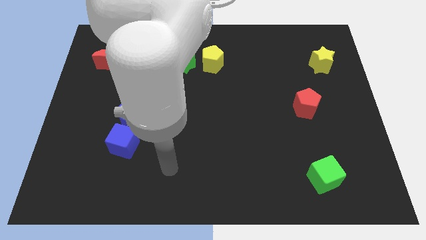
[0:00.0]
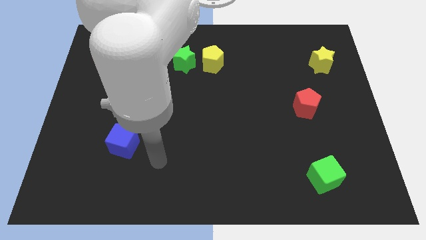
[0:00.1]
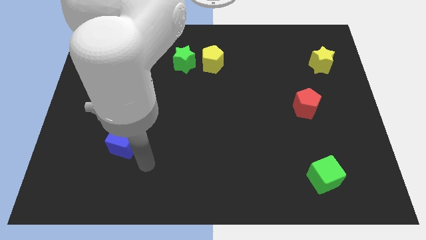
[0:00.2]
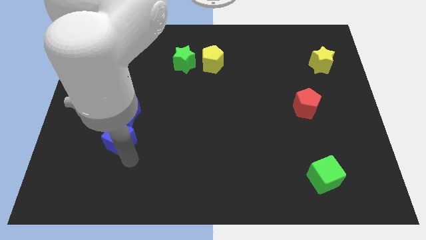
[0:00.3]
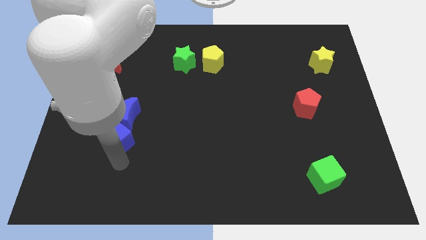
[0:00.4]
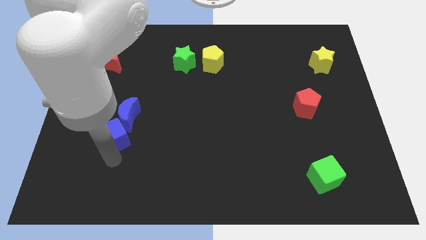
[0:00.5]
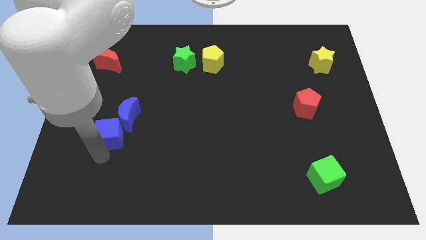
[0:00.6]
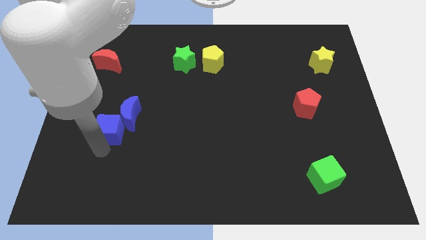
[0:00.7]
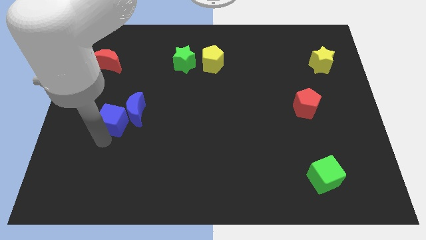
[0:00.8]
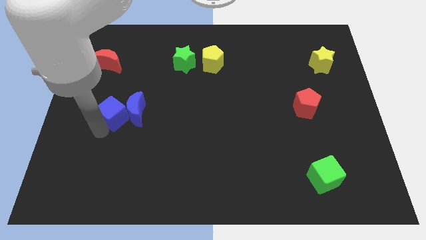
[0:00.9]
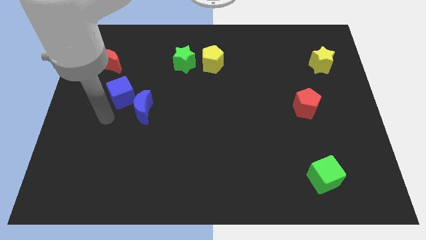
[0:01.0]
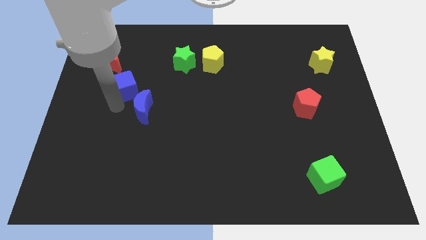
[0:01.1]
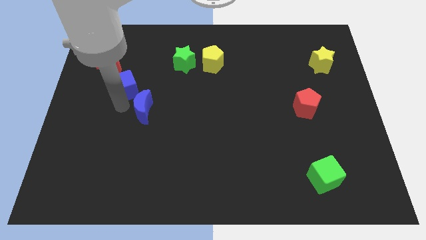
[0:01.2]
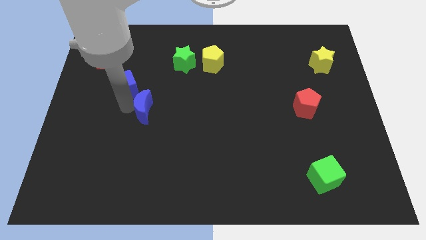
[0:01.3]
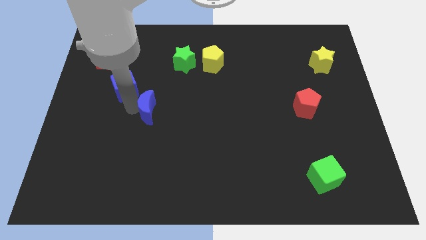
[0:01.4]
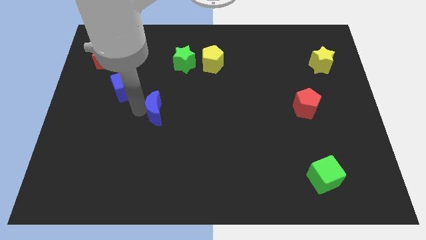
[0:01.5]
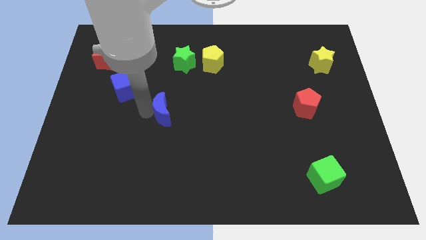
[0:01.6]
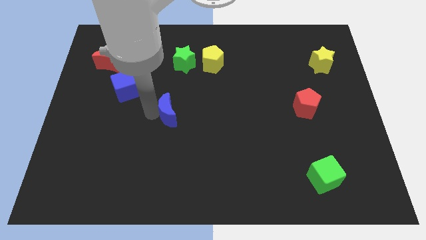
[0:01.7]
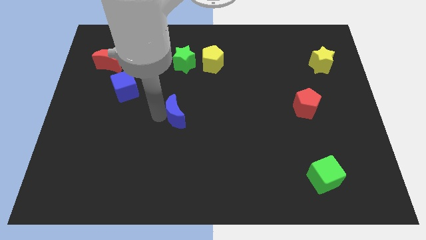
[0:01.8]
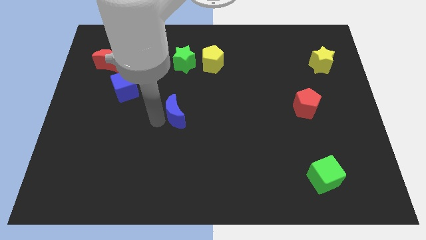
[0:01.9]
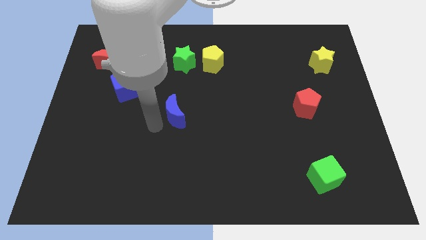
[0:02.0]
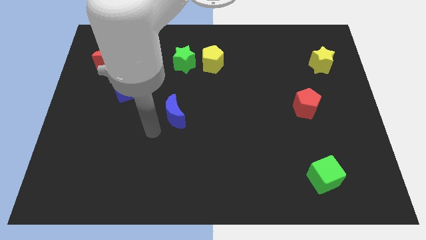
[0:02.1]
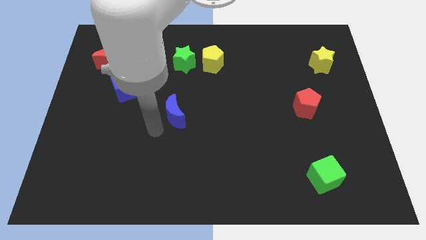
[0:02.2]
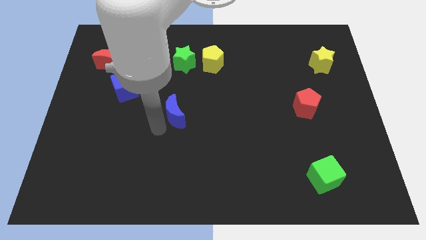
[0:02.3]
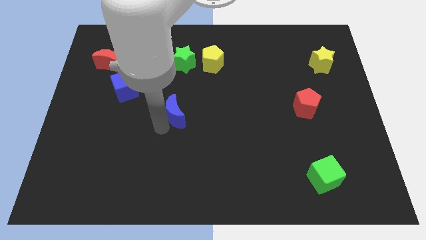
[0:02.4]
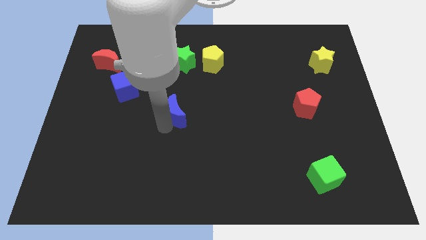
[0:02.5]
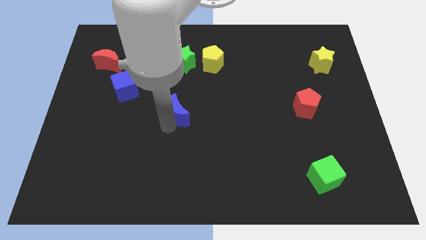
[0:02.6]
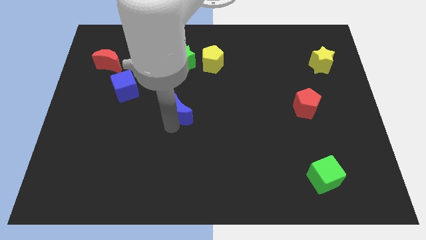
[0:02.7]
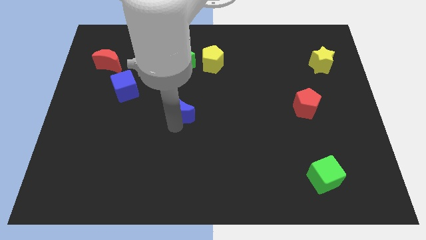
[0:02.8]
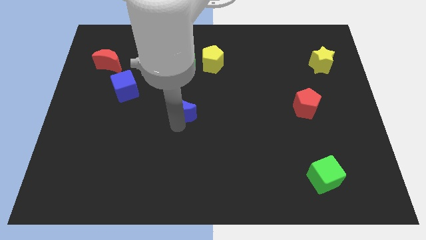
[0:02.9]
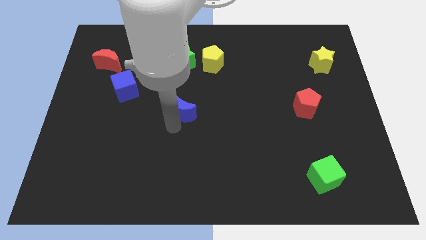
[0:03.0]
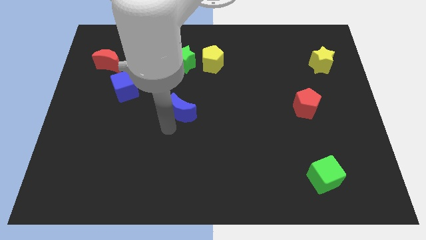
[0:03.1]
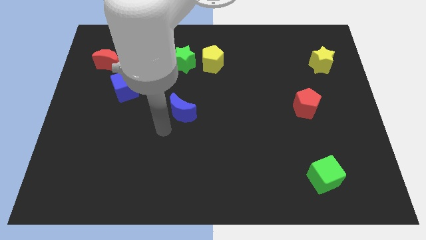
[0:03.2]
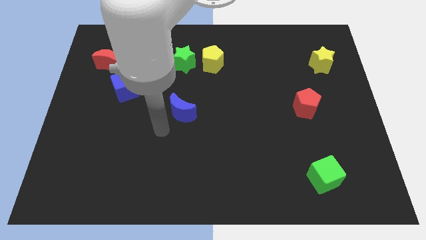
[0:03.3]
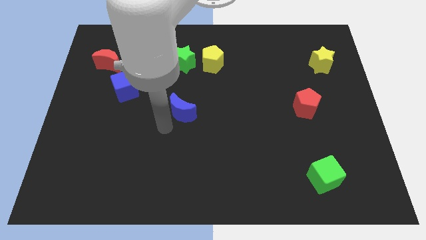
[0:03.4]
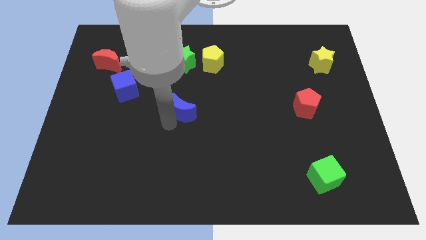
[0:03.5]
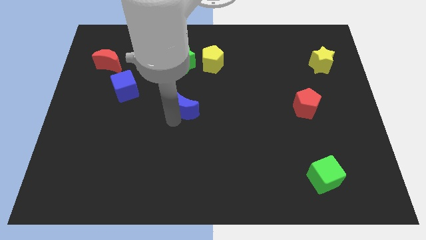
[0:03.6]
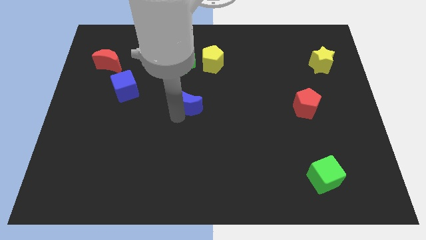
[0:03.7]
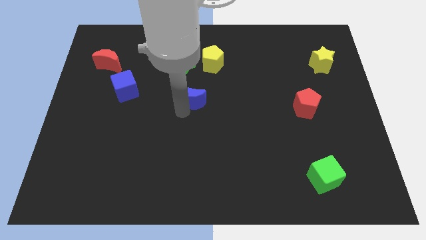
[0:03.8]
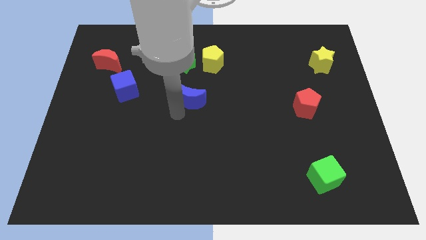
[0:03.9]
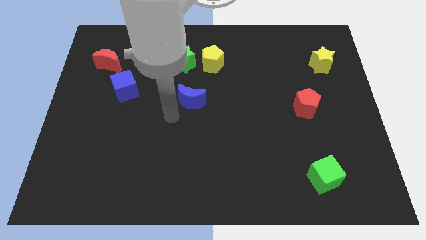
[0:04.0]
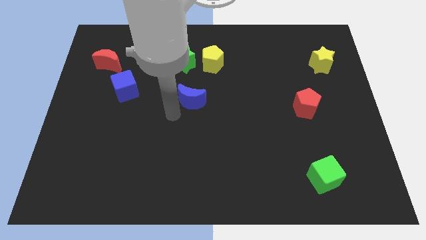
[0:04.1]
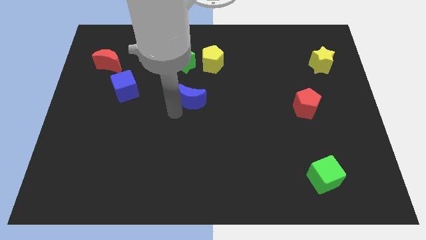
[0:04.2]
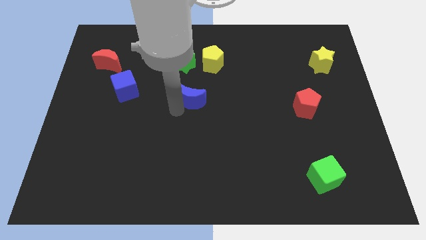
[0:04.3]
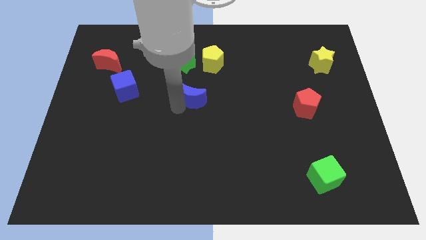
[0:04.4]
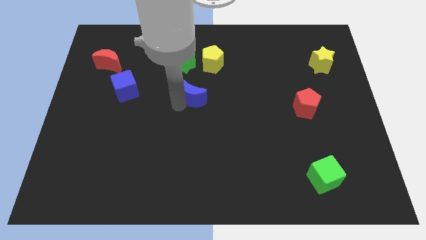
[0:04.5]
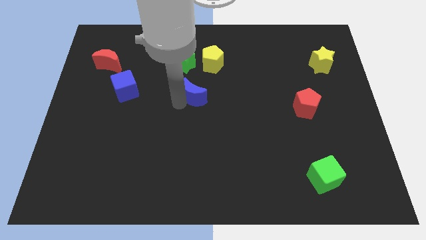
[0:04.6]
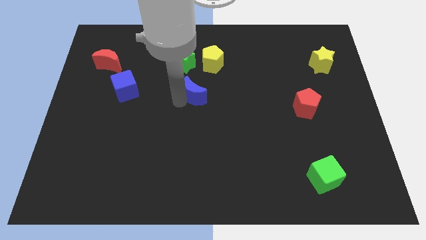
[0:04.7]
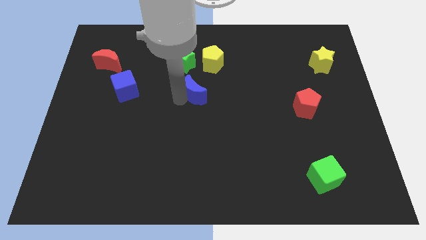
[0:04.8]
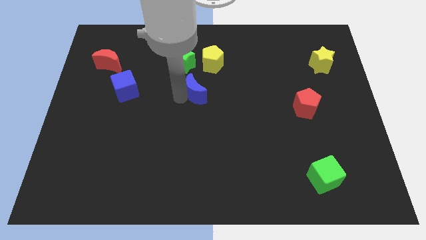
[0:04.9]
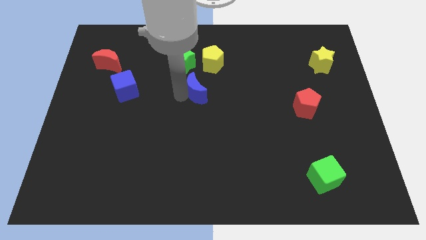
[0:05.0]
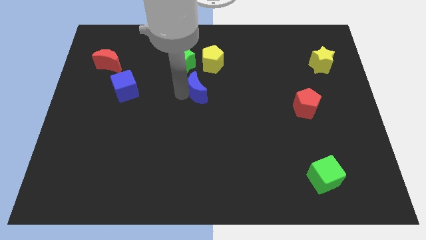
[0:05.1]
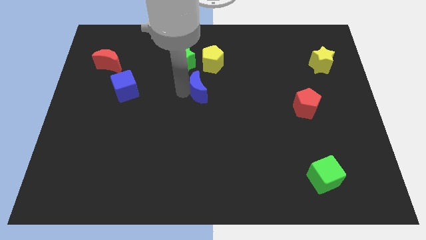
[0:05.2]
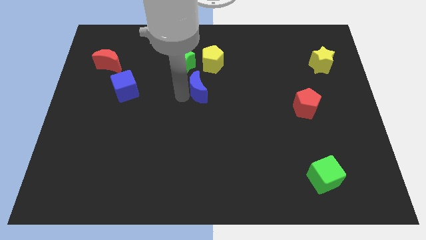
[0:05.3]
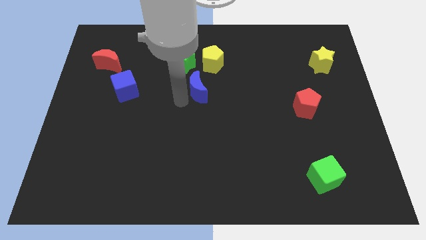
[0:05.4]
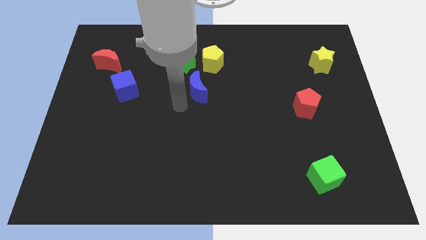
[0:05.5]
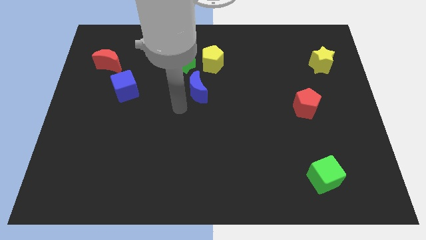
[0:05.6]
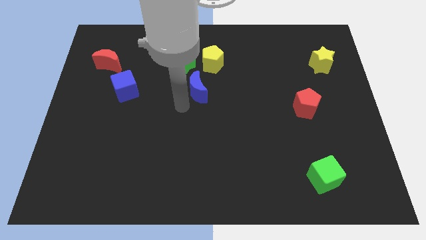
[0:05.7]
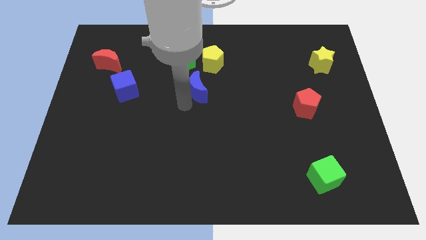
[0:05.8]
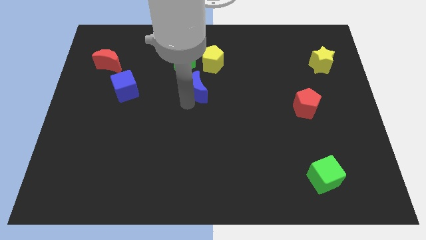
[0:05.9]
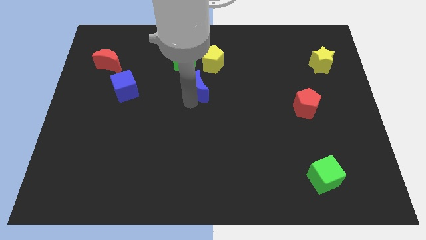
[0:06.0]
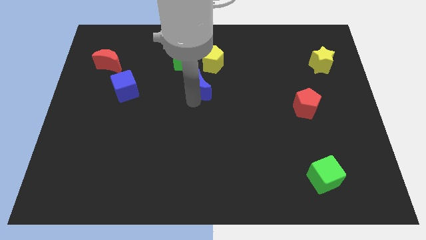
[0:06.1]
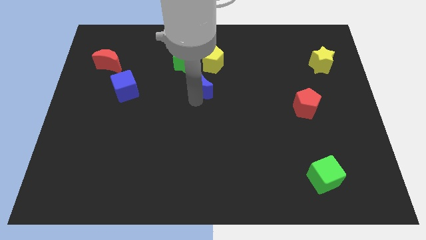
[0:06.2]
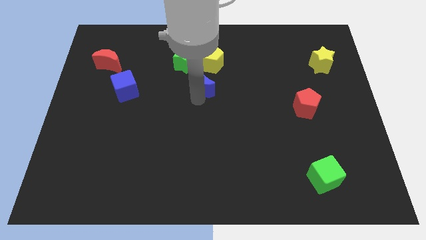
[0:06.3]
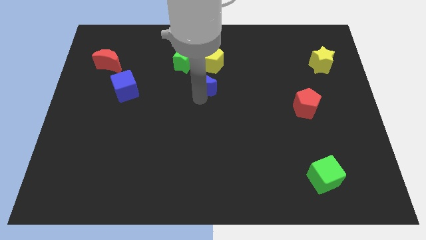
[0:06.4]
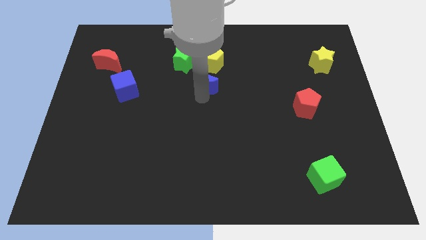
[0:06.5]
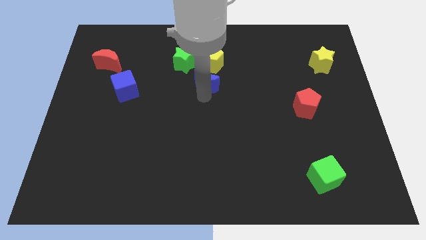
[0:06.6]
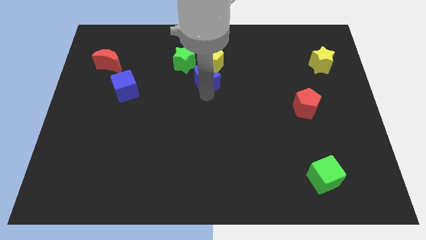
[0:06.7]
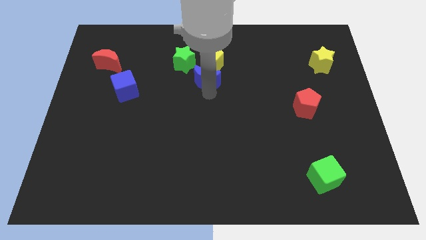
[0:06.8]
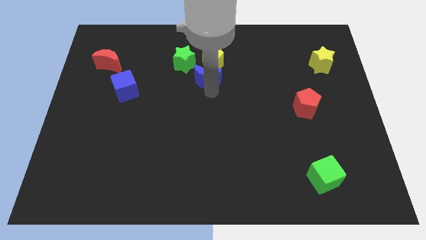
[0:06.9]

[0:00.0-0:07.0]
slide the blue moon next to the yellow pentagon

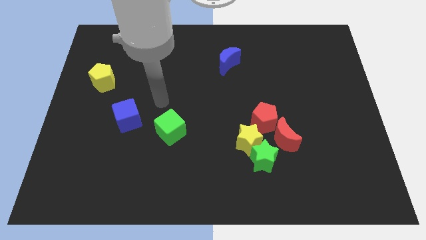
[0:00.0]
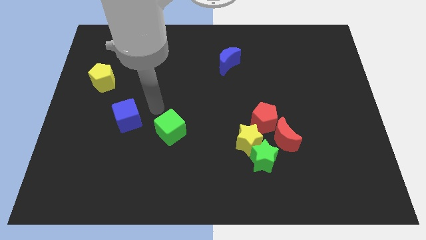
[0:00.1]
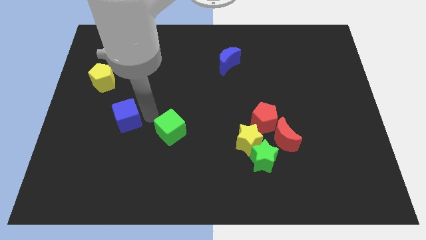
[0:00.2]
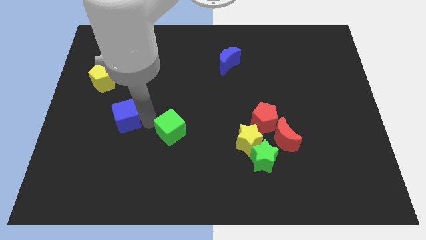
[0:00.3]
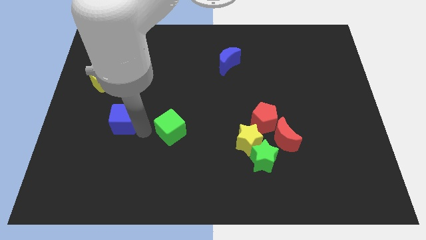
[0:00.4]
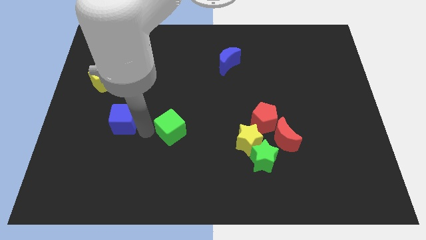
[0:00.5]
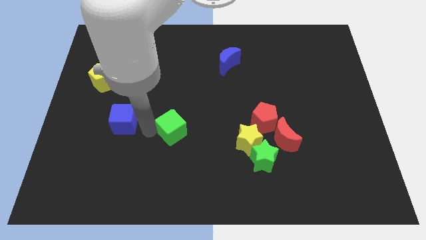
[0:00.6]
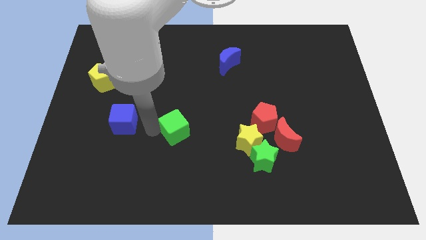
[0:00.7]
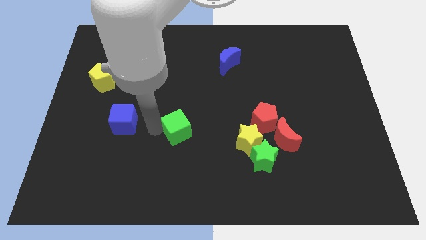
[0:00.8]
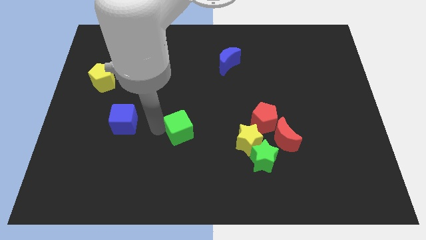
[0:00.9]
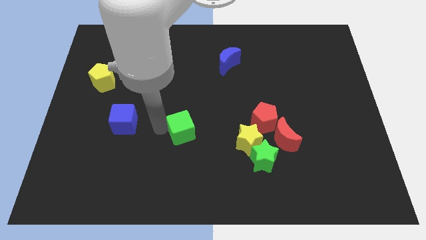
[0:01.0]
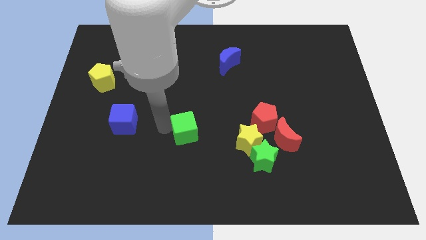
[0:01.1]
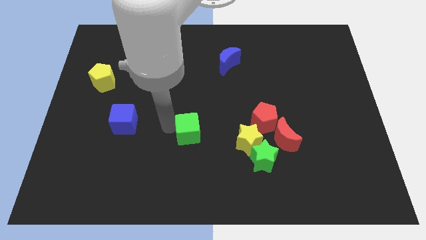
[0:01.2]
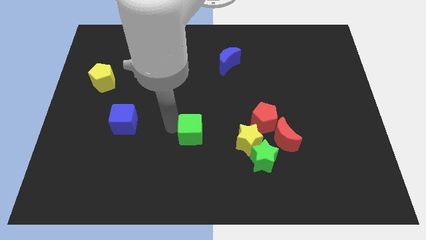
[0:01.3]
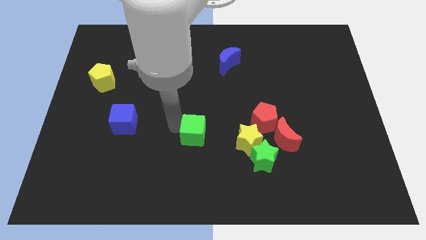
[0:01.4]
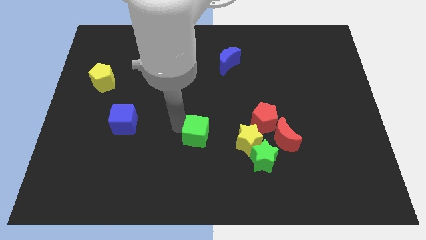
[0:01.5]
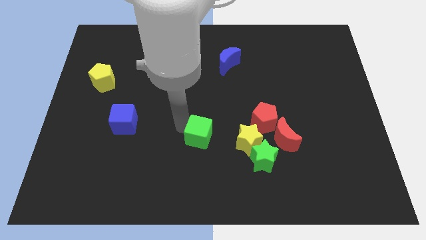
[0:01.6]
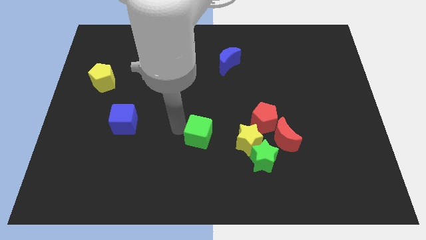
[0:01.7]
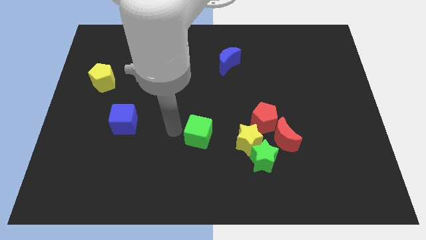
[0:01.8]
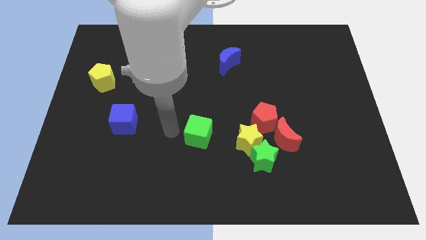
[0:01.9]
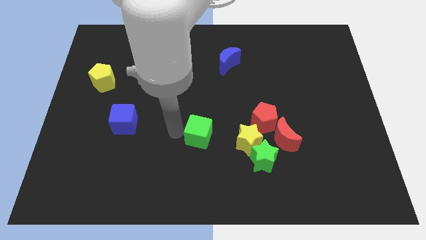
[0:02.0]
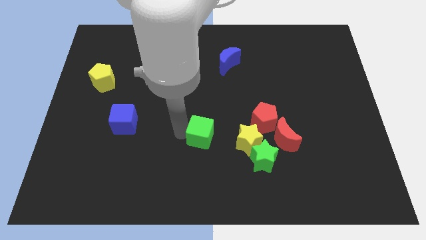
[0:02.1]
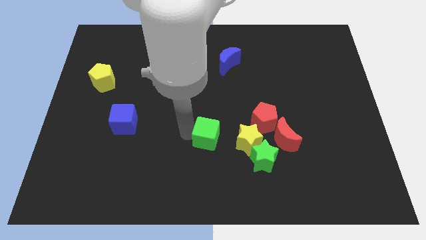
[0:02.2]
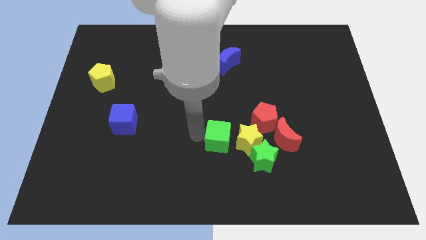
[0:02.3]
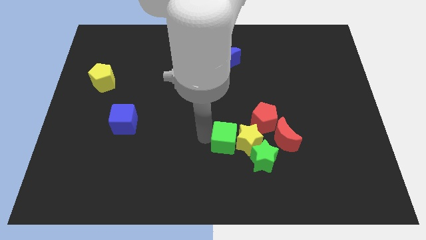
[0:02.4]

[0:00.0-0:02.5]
slide the green cube to the yellow star
